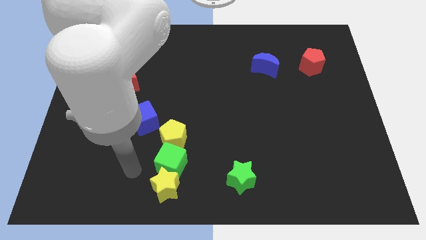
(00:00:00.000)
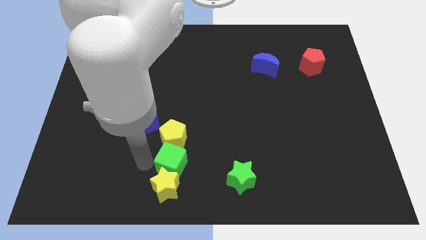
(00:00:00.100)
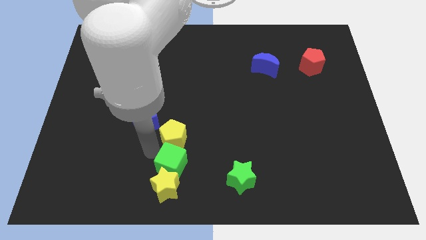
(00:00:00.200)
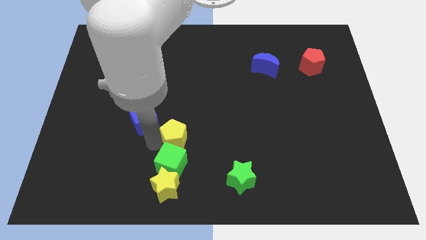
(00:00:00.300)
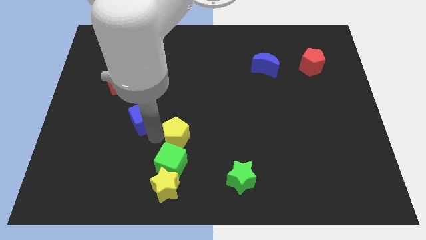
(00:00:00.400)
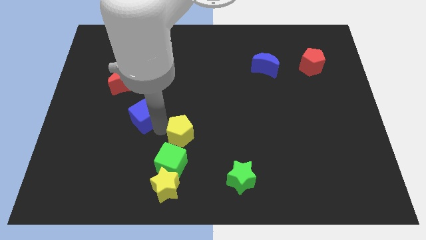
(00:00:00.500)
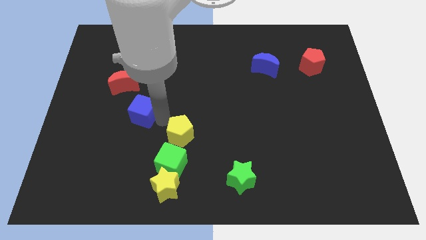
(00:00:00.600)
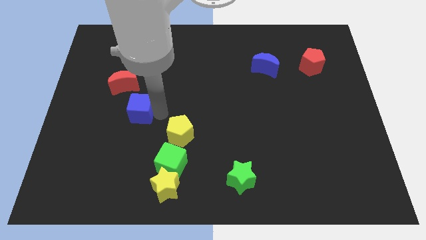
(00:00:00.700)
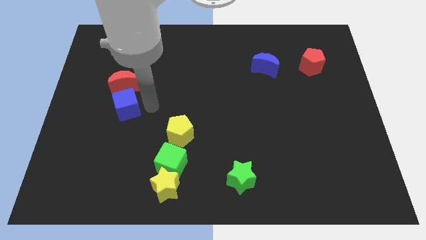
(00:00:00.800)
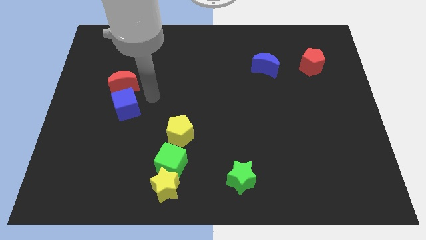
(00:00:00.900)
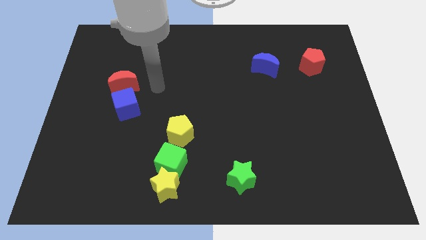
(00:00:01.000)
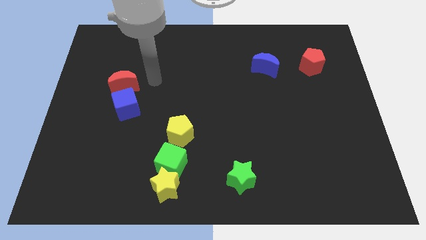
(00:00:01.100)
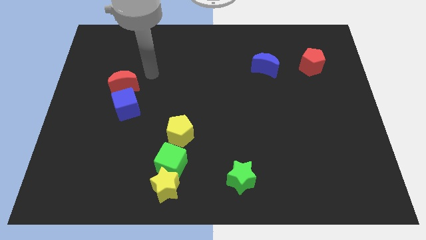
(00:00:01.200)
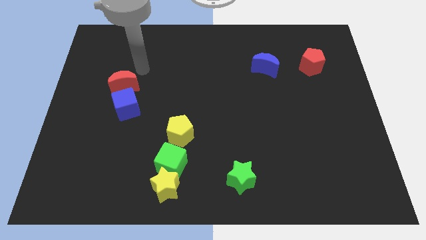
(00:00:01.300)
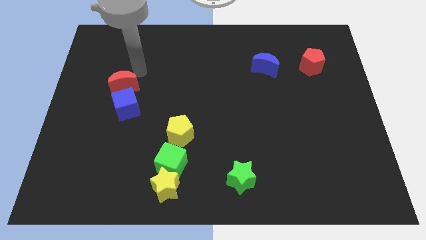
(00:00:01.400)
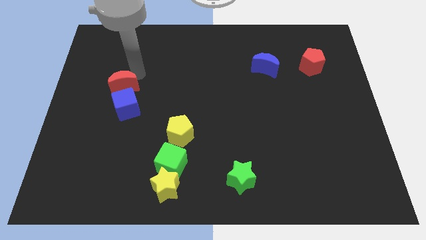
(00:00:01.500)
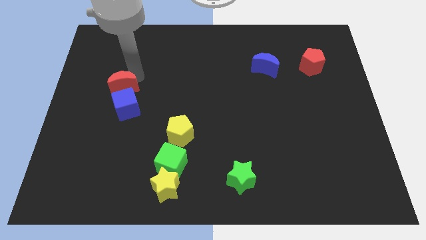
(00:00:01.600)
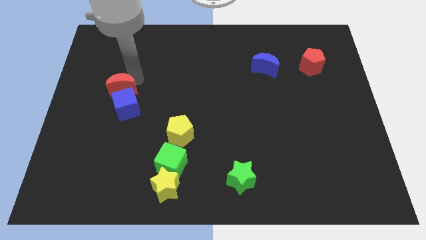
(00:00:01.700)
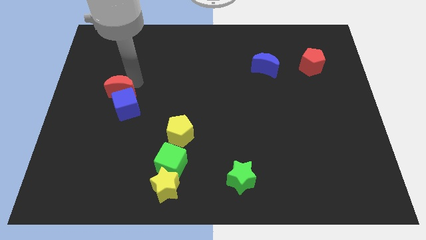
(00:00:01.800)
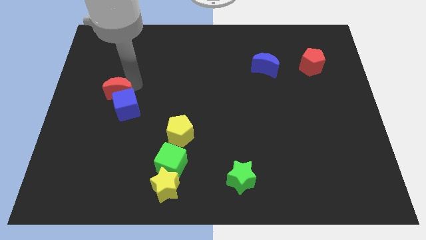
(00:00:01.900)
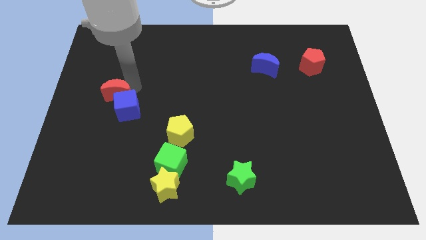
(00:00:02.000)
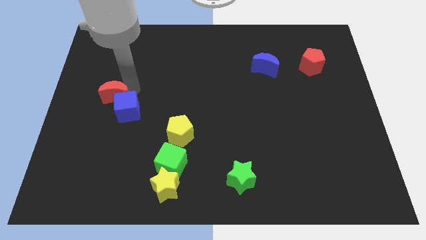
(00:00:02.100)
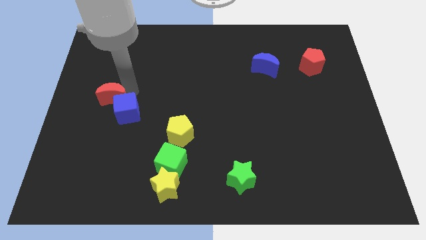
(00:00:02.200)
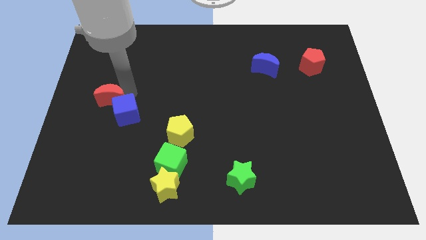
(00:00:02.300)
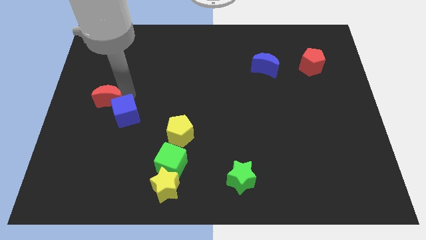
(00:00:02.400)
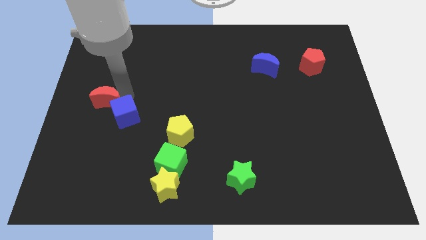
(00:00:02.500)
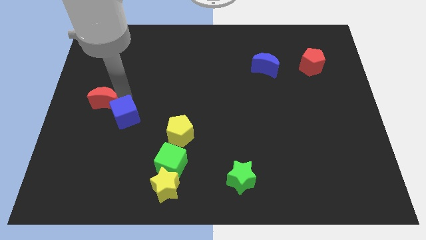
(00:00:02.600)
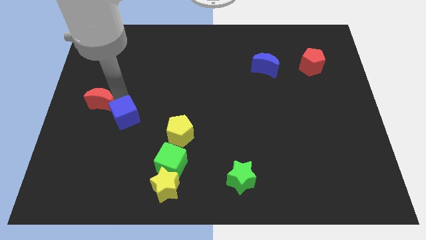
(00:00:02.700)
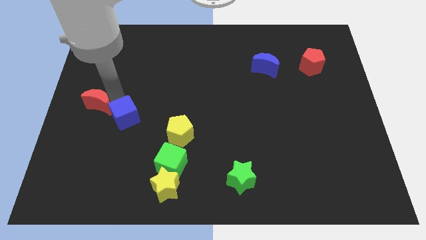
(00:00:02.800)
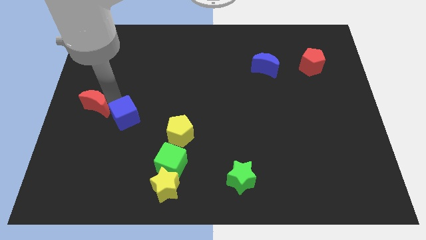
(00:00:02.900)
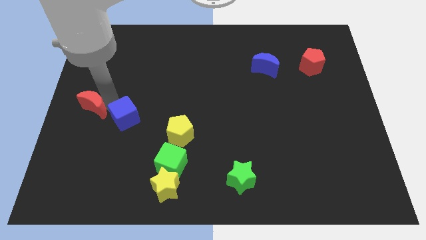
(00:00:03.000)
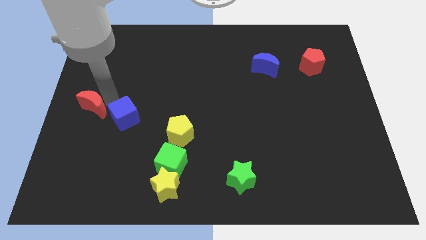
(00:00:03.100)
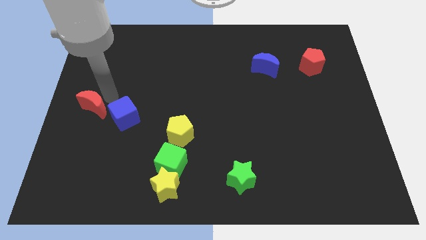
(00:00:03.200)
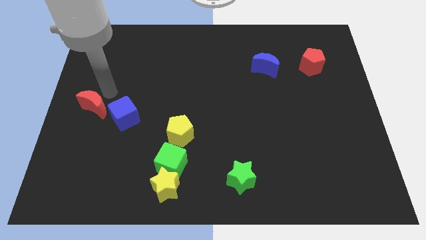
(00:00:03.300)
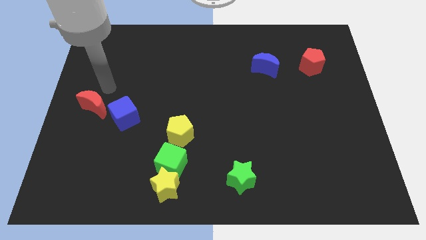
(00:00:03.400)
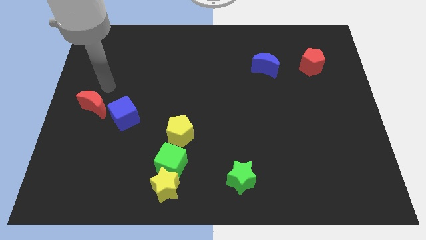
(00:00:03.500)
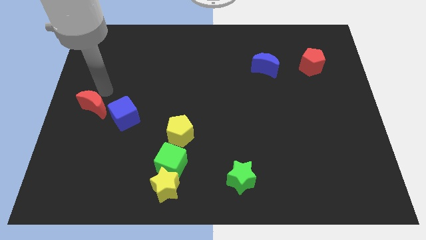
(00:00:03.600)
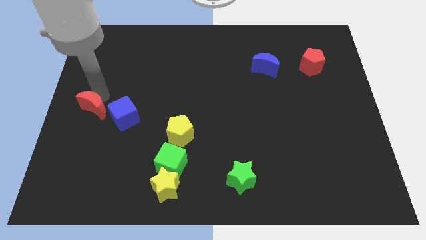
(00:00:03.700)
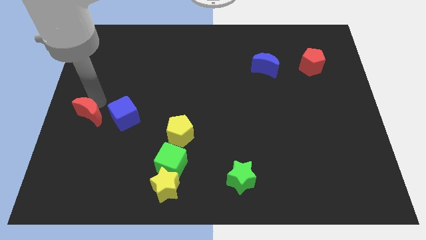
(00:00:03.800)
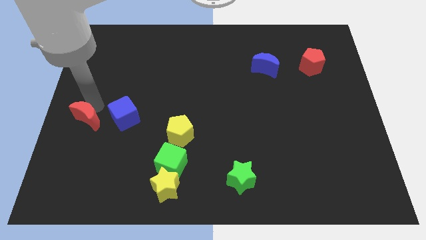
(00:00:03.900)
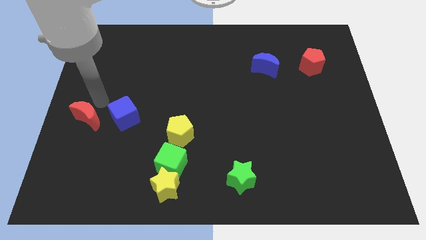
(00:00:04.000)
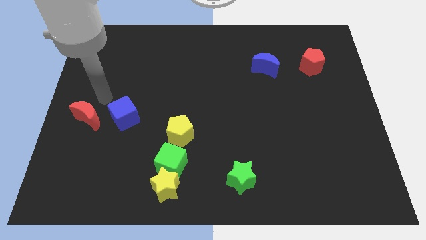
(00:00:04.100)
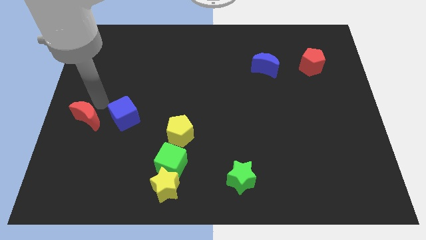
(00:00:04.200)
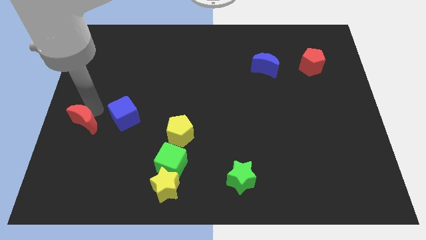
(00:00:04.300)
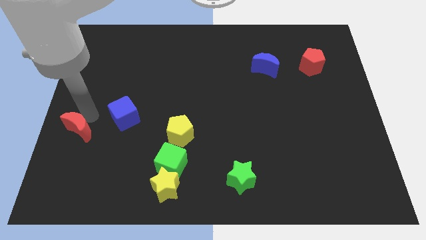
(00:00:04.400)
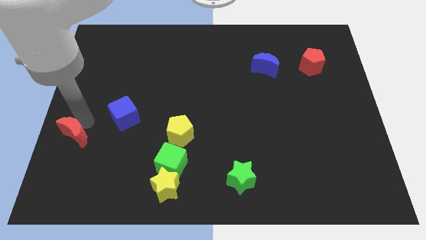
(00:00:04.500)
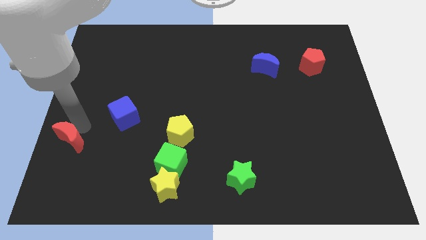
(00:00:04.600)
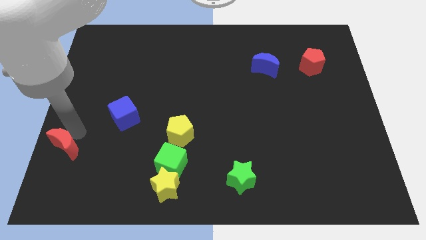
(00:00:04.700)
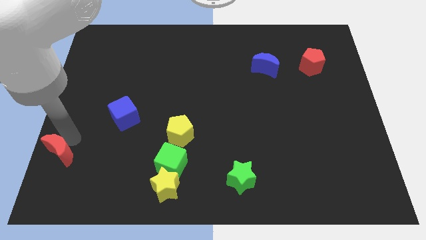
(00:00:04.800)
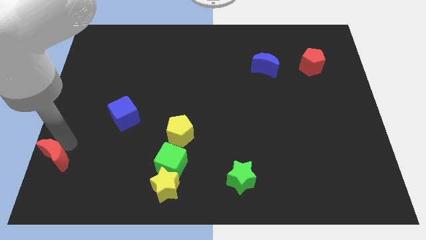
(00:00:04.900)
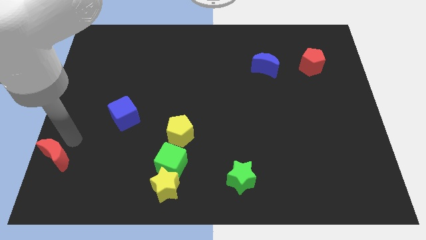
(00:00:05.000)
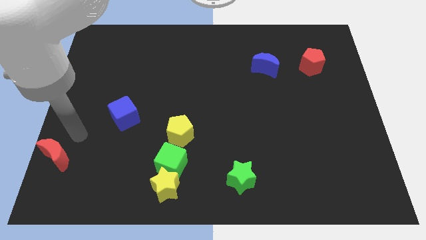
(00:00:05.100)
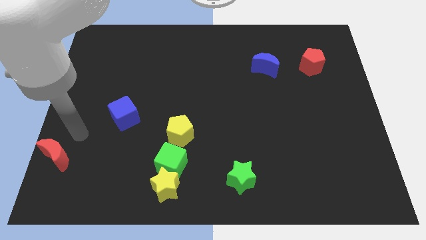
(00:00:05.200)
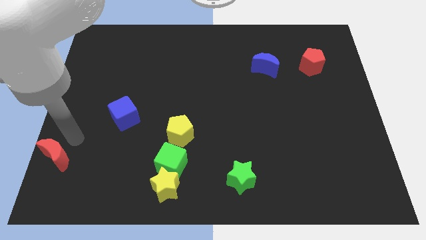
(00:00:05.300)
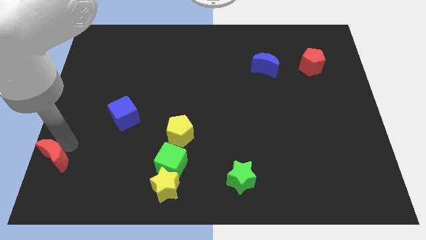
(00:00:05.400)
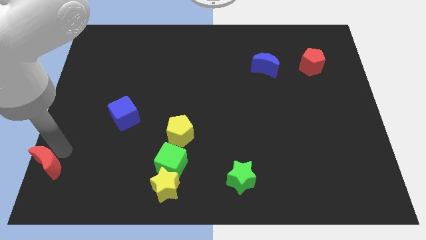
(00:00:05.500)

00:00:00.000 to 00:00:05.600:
slide the red moon to the bottom left corner
